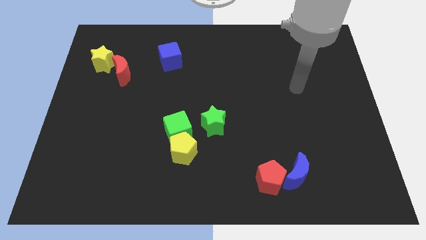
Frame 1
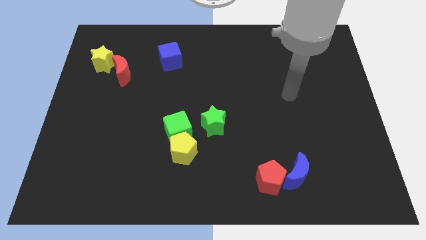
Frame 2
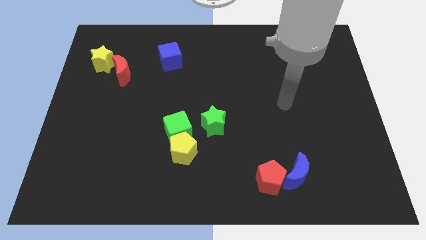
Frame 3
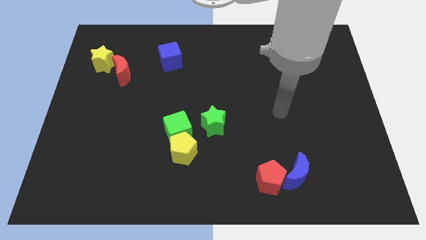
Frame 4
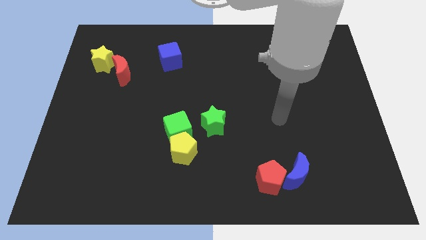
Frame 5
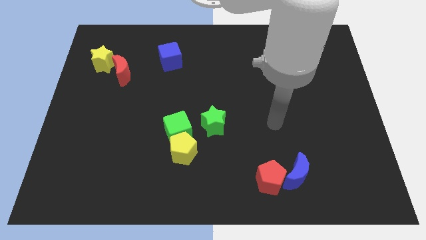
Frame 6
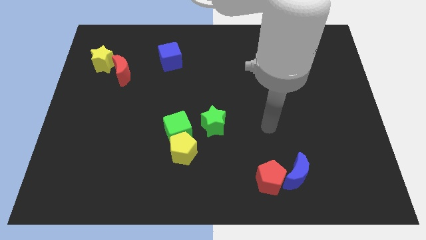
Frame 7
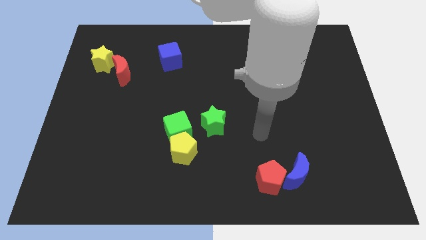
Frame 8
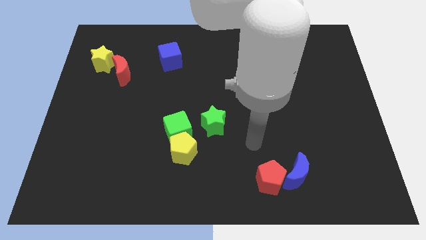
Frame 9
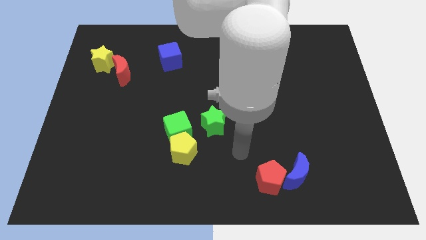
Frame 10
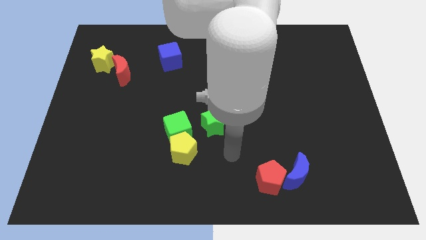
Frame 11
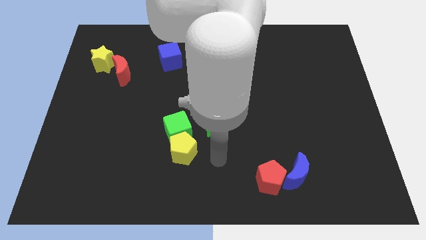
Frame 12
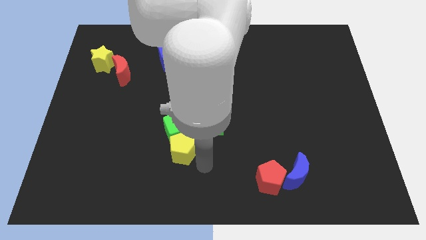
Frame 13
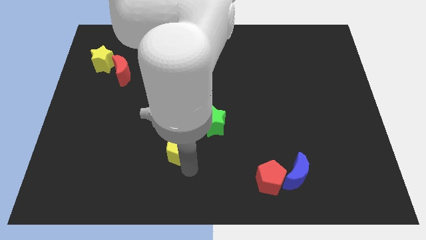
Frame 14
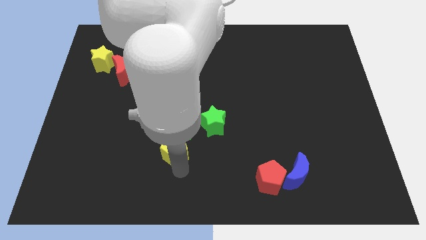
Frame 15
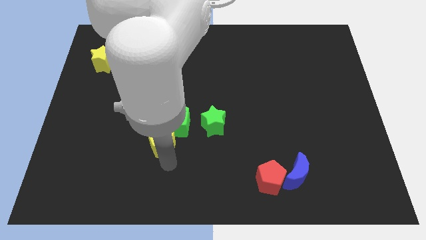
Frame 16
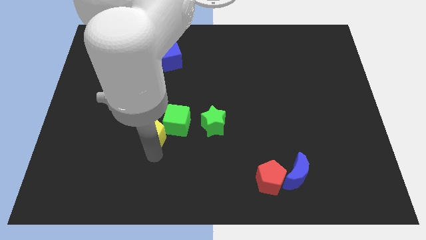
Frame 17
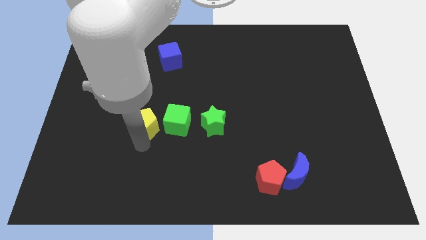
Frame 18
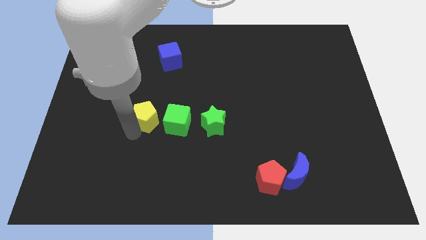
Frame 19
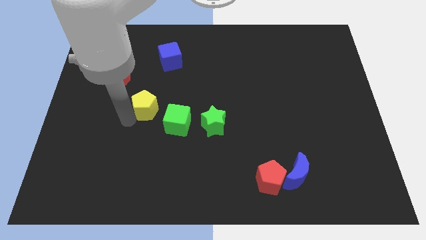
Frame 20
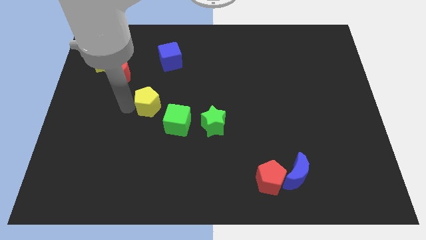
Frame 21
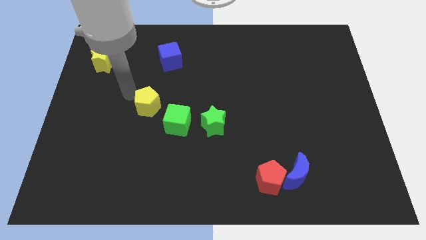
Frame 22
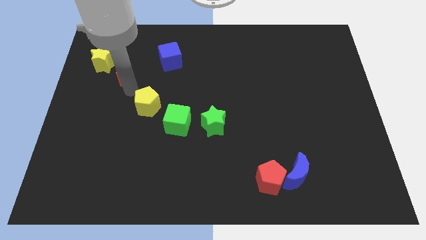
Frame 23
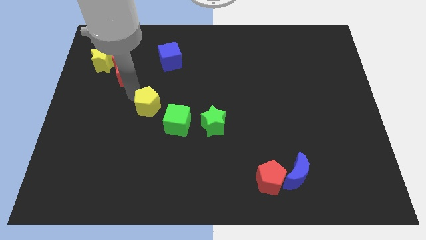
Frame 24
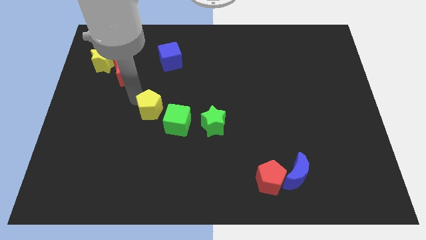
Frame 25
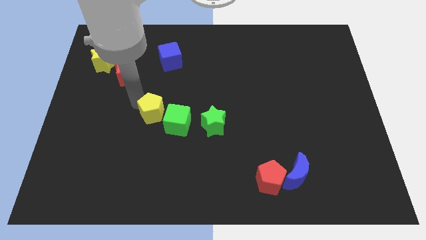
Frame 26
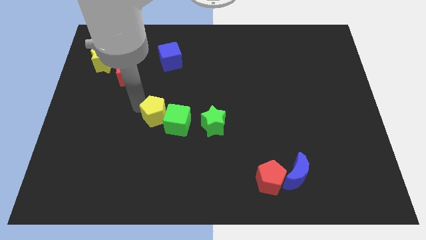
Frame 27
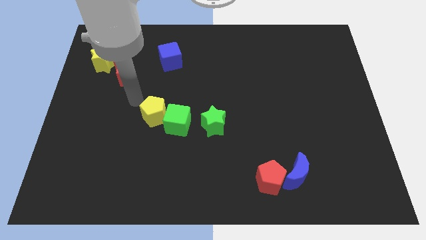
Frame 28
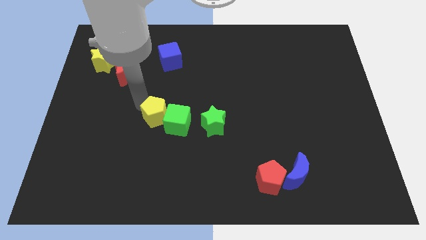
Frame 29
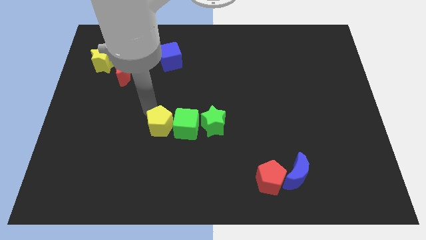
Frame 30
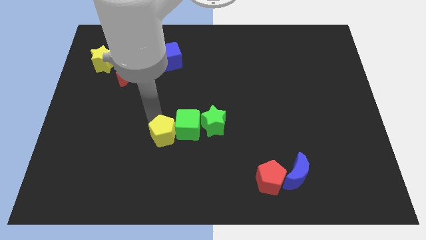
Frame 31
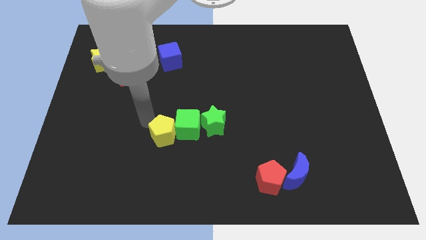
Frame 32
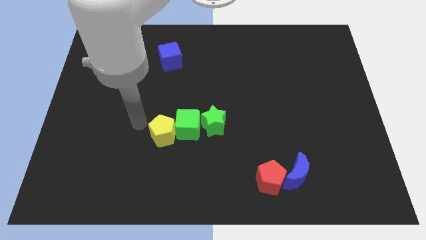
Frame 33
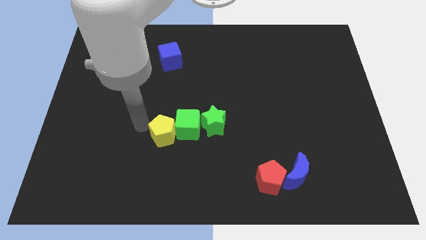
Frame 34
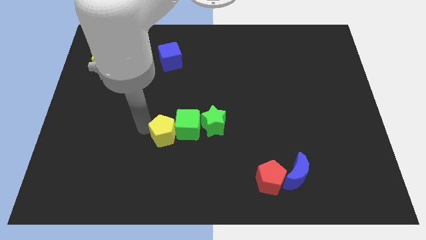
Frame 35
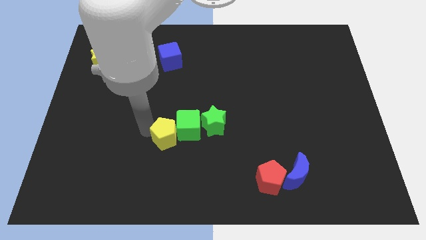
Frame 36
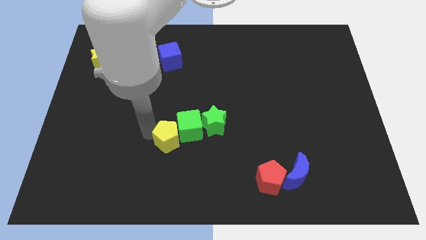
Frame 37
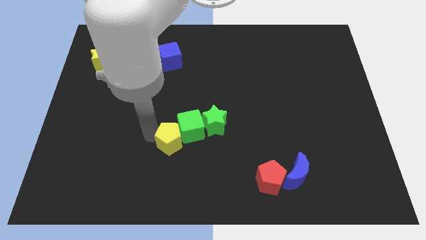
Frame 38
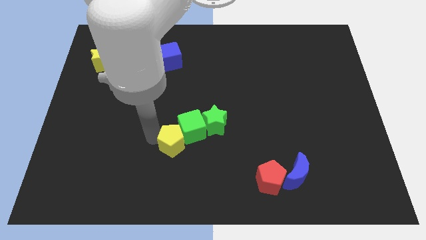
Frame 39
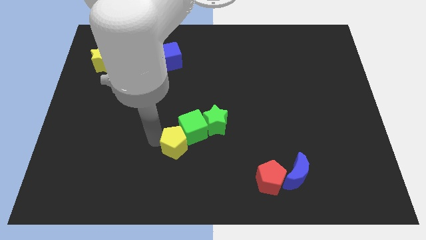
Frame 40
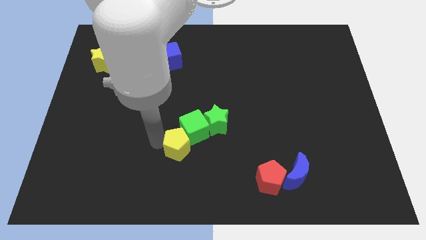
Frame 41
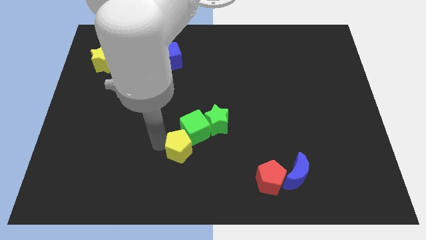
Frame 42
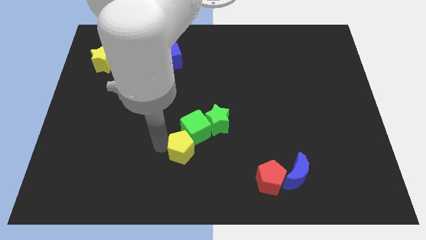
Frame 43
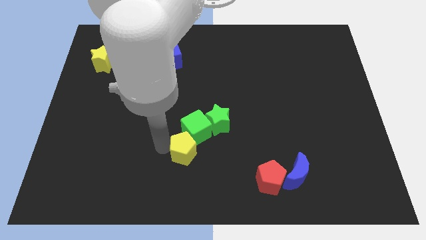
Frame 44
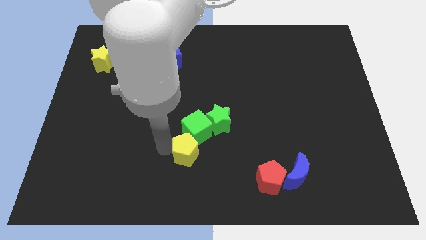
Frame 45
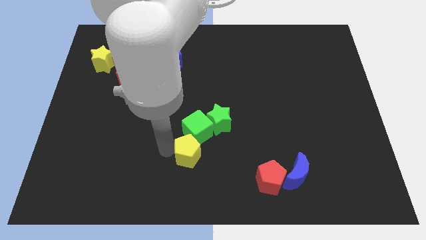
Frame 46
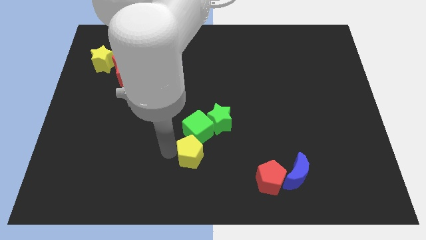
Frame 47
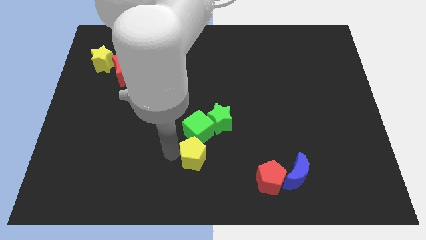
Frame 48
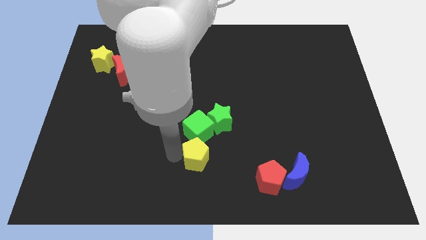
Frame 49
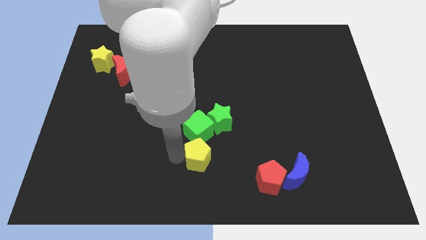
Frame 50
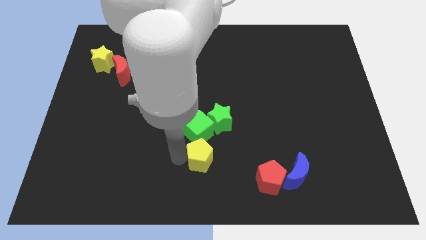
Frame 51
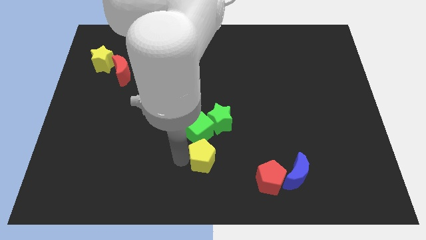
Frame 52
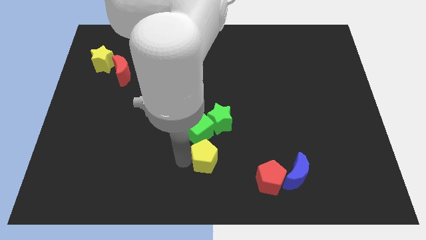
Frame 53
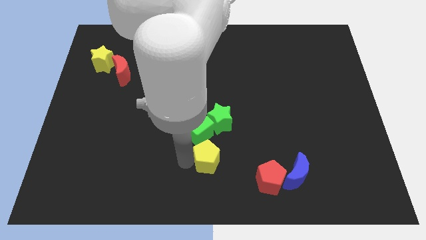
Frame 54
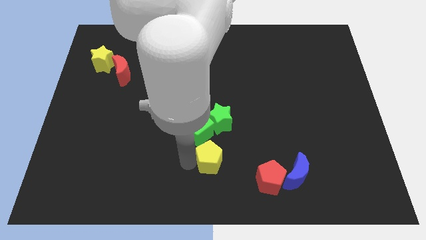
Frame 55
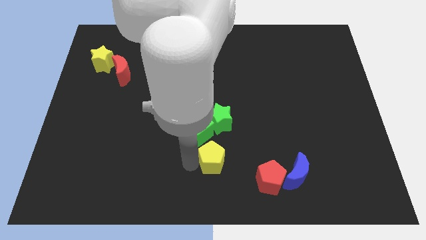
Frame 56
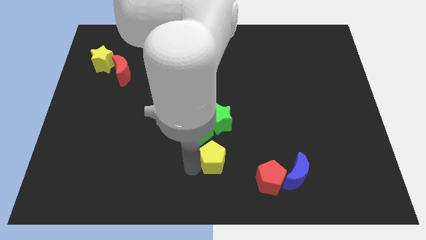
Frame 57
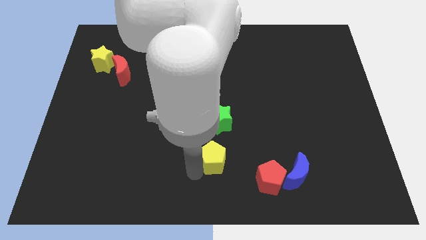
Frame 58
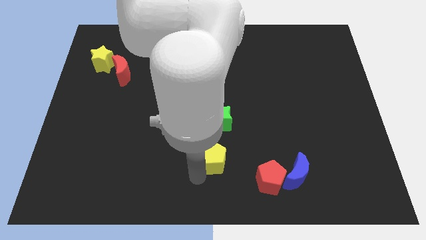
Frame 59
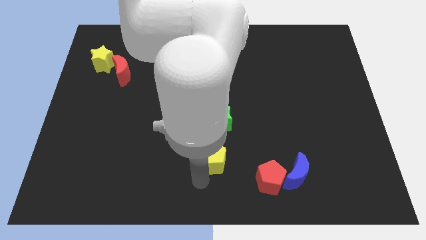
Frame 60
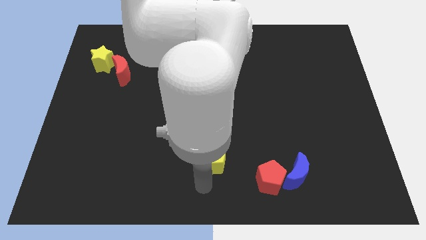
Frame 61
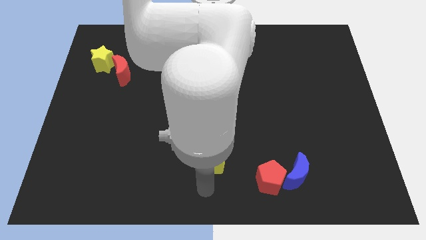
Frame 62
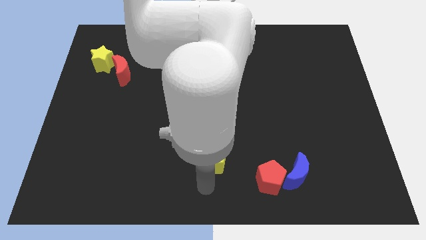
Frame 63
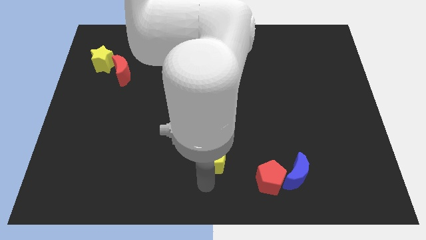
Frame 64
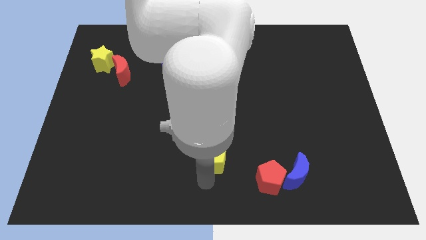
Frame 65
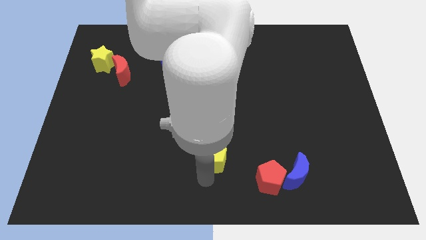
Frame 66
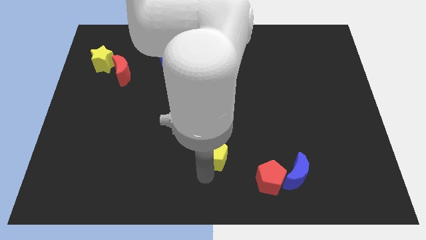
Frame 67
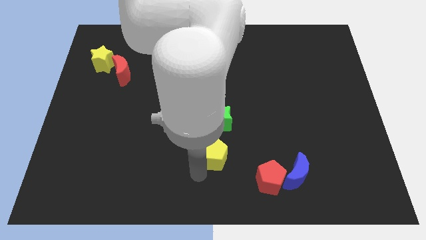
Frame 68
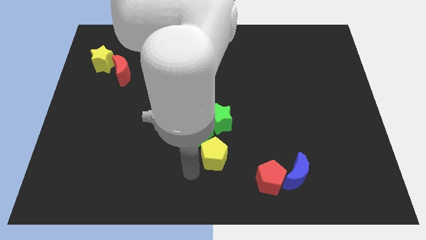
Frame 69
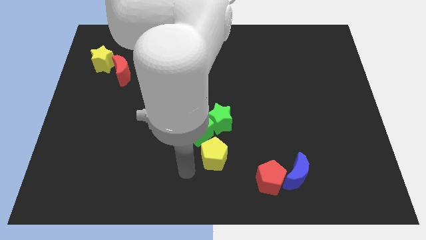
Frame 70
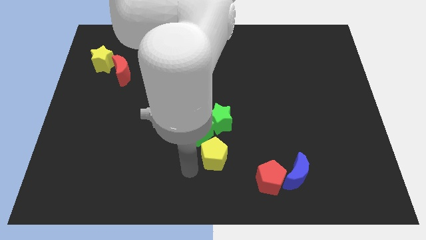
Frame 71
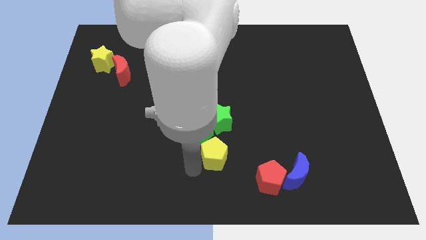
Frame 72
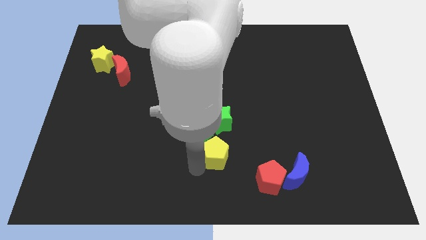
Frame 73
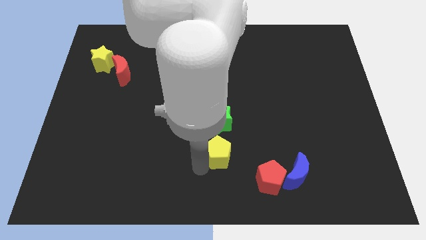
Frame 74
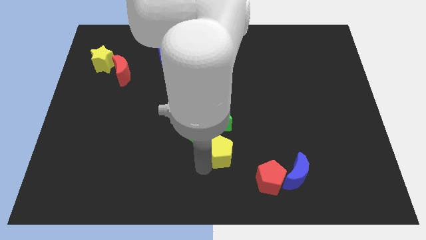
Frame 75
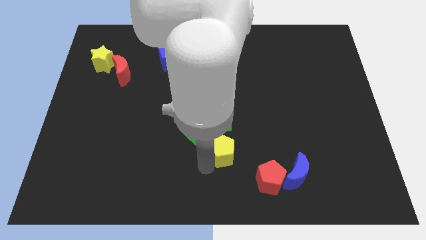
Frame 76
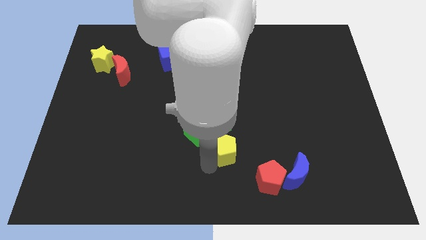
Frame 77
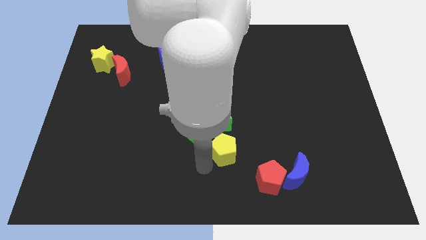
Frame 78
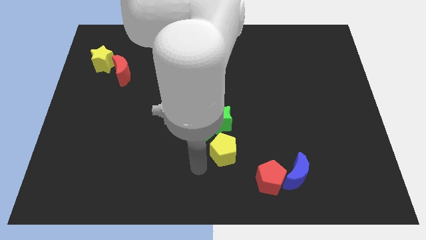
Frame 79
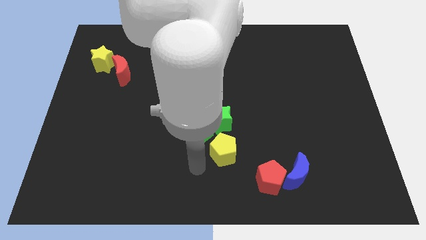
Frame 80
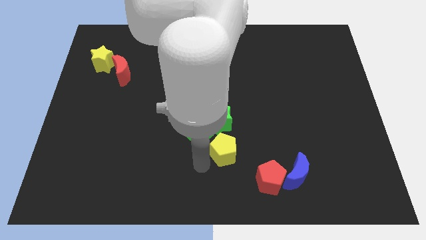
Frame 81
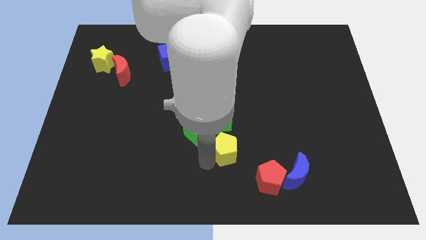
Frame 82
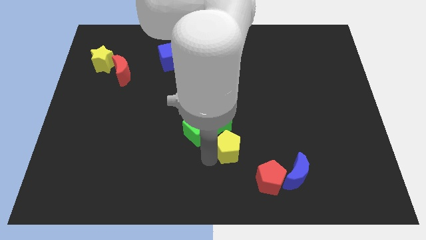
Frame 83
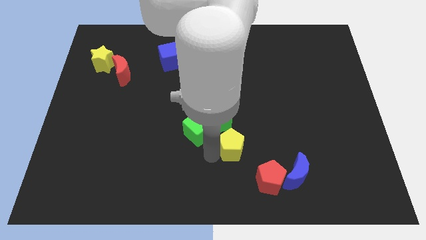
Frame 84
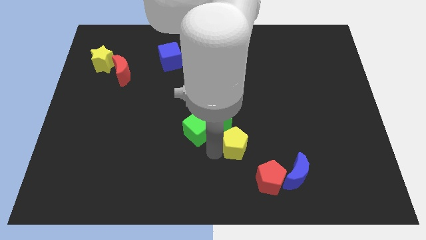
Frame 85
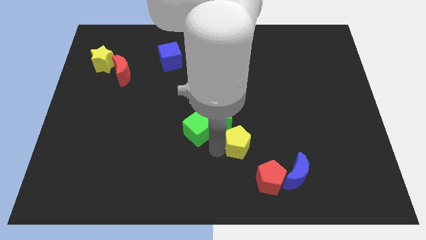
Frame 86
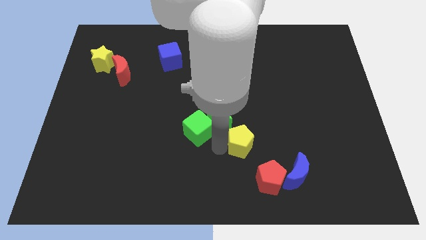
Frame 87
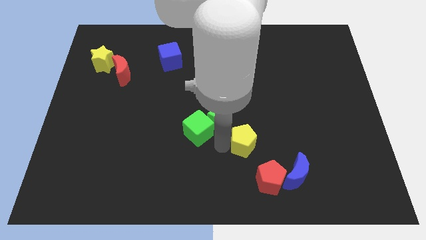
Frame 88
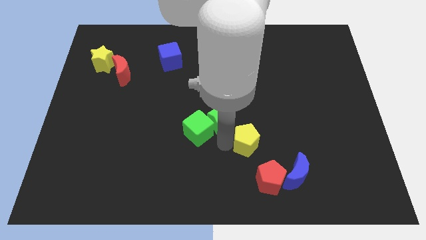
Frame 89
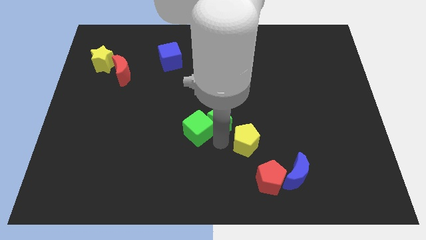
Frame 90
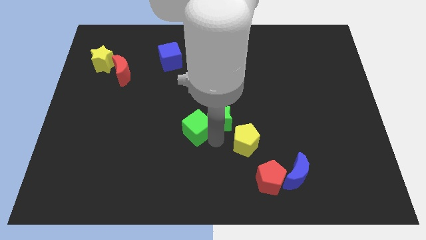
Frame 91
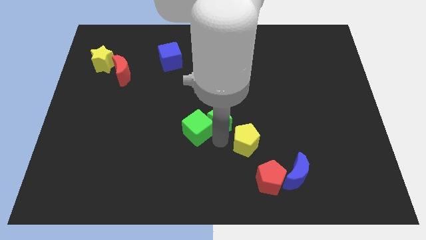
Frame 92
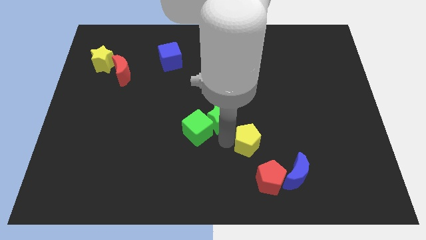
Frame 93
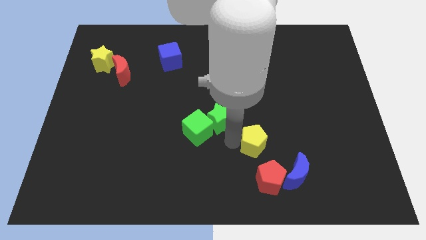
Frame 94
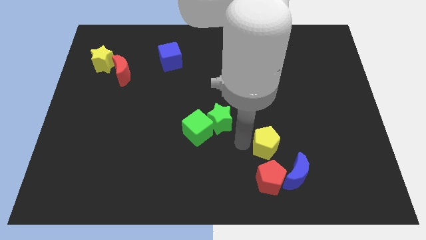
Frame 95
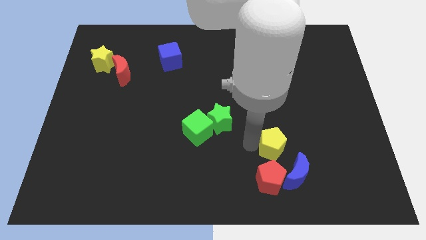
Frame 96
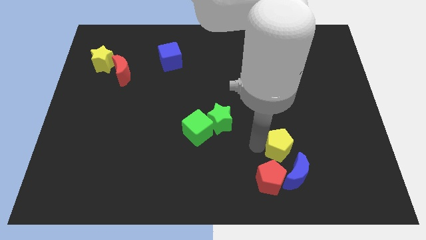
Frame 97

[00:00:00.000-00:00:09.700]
slide the yellow pentagon to the right
